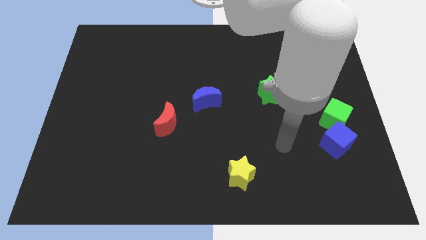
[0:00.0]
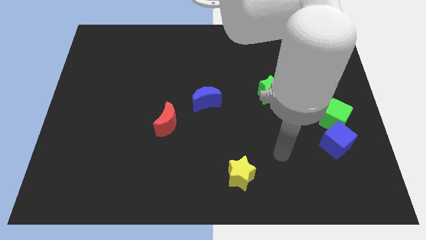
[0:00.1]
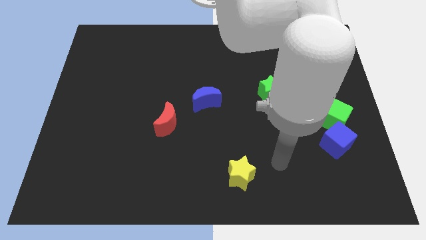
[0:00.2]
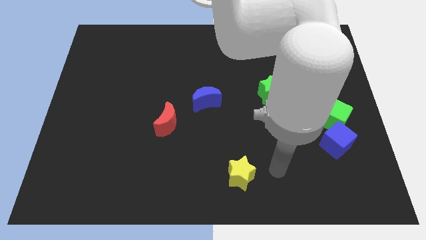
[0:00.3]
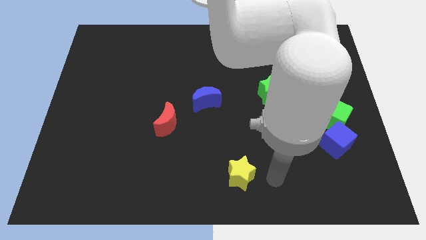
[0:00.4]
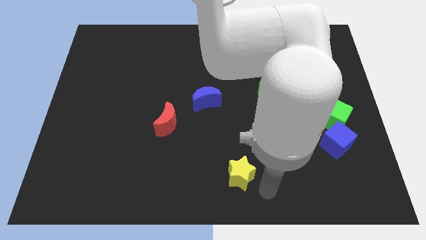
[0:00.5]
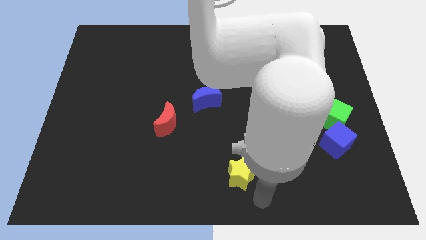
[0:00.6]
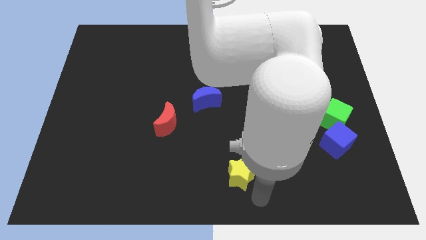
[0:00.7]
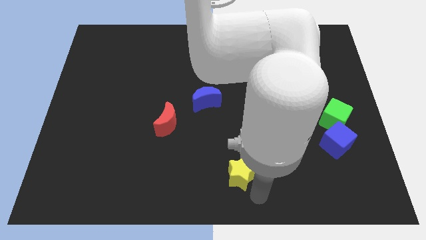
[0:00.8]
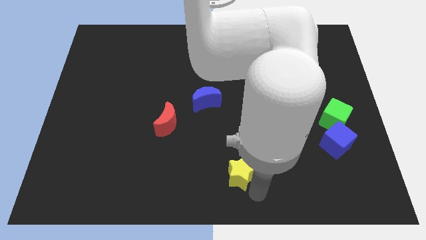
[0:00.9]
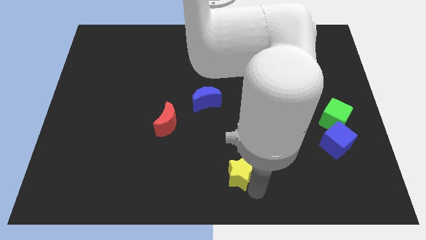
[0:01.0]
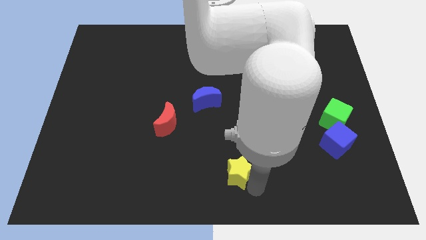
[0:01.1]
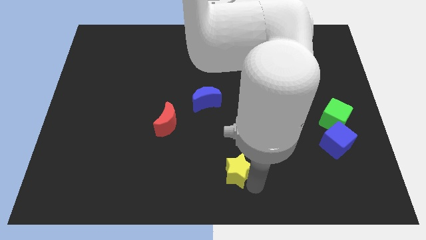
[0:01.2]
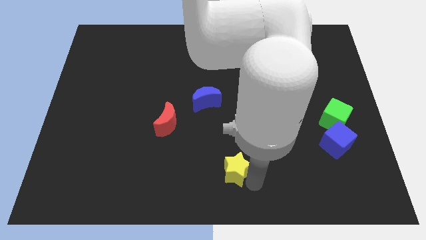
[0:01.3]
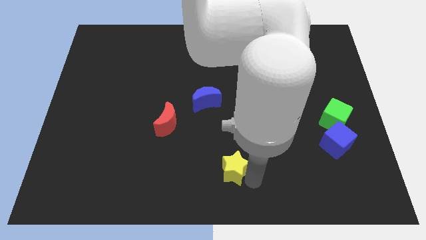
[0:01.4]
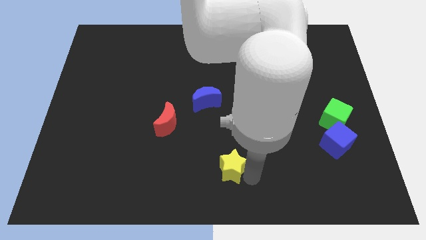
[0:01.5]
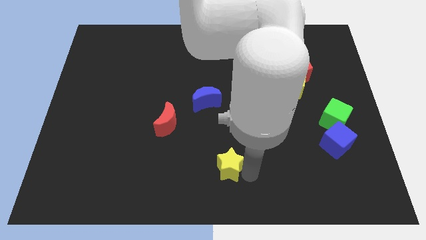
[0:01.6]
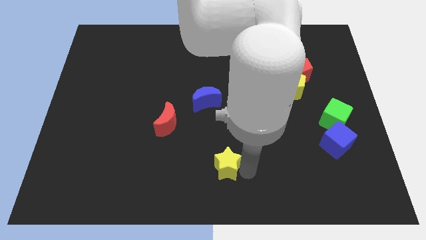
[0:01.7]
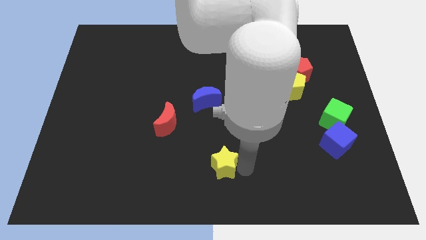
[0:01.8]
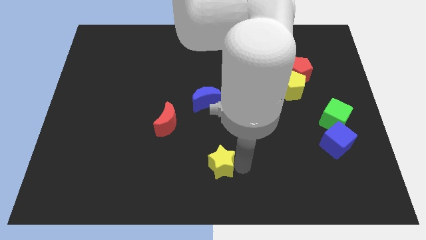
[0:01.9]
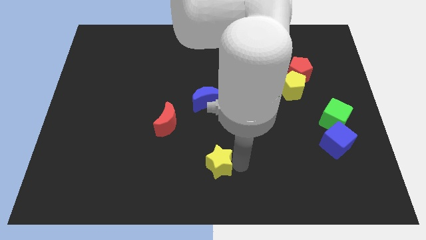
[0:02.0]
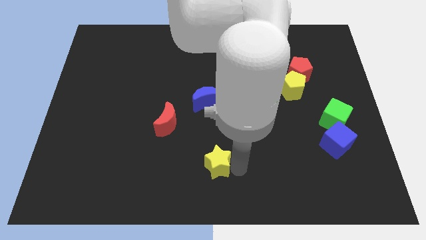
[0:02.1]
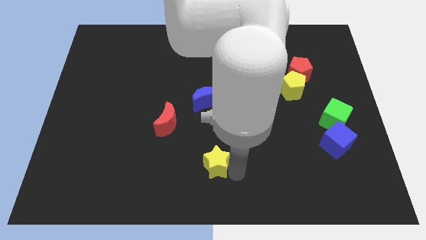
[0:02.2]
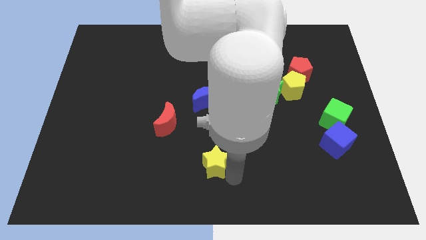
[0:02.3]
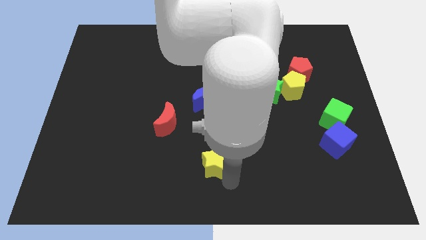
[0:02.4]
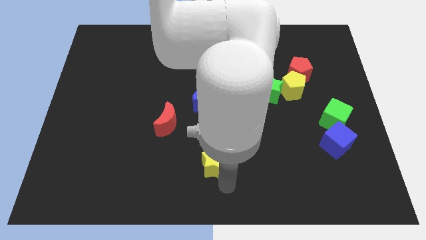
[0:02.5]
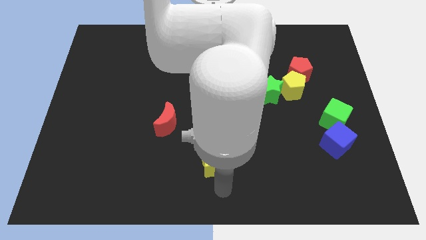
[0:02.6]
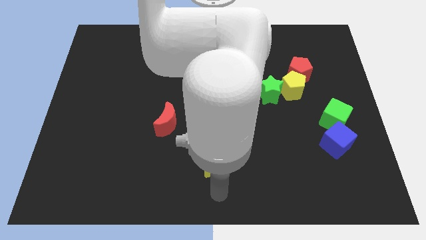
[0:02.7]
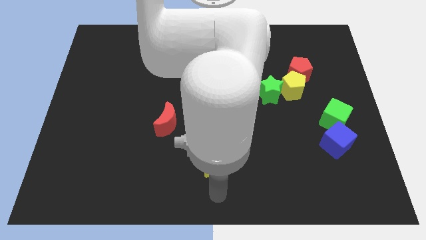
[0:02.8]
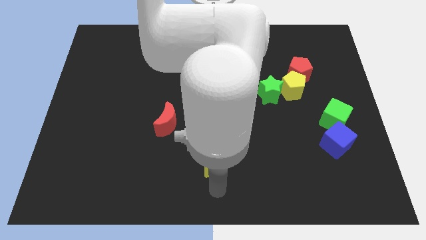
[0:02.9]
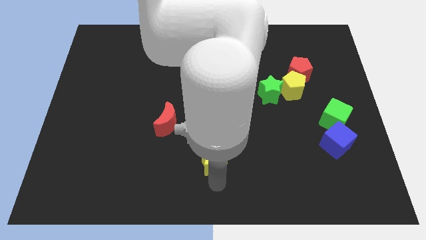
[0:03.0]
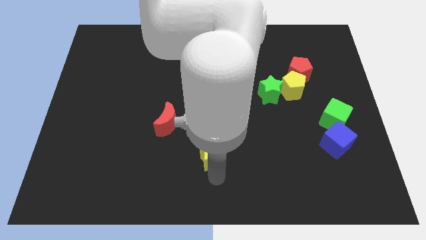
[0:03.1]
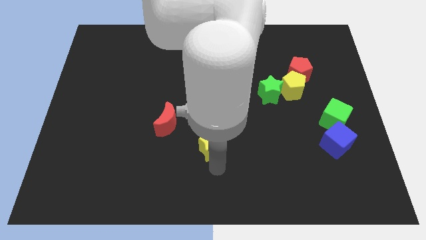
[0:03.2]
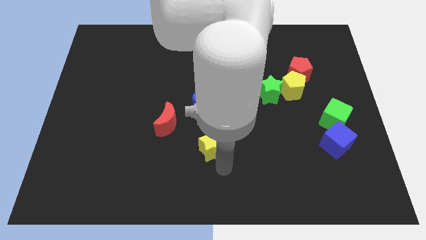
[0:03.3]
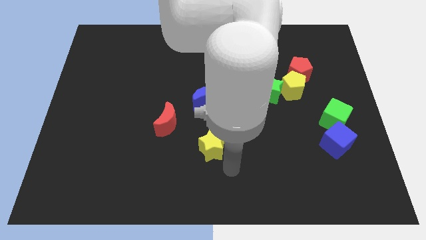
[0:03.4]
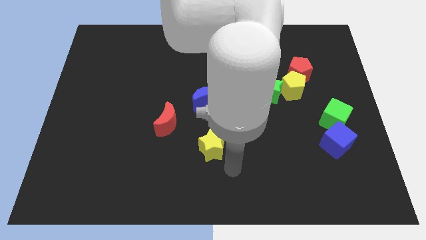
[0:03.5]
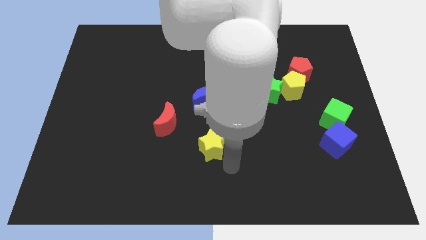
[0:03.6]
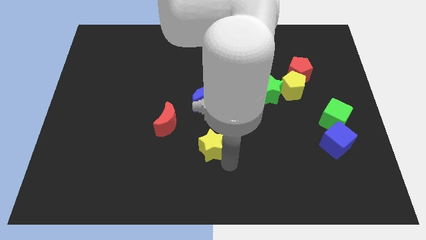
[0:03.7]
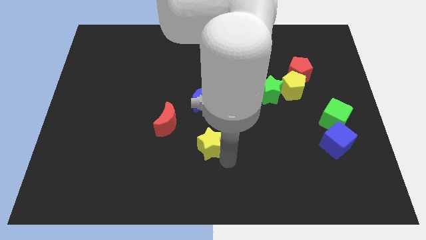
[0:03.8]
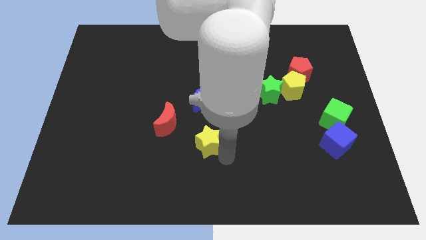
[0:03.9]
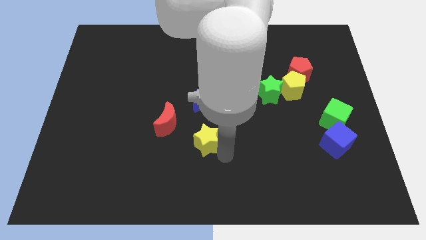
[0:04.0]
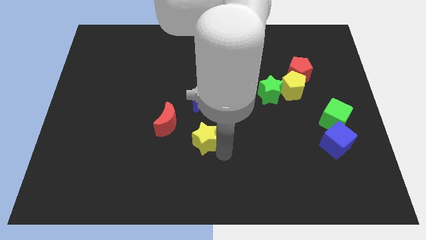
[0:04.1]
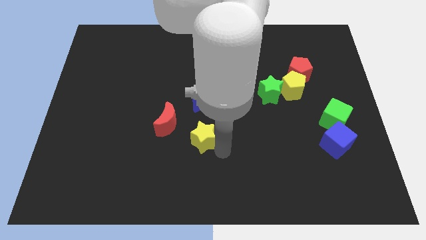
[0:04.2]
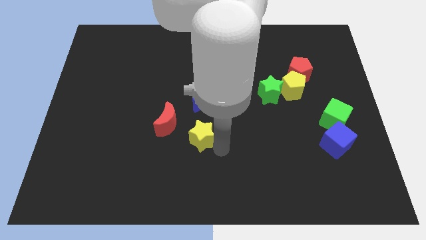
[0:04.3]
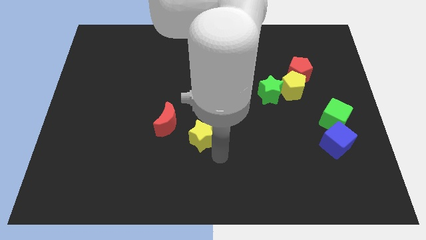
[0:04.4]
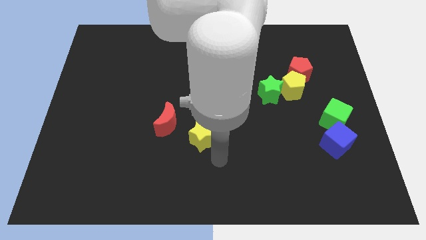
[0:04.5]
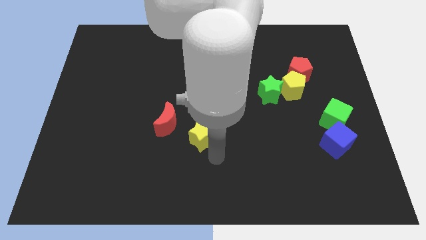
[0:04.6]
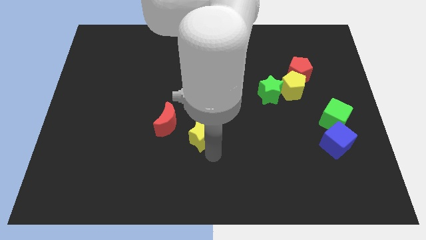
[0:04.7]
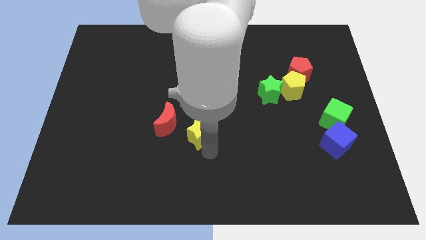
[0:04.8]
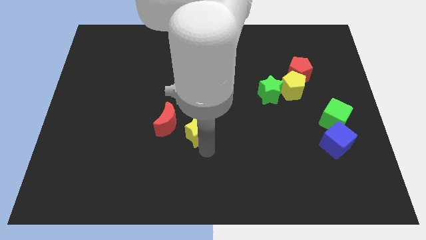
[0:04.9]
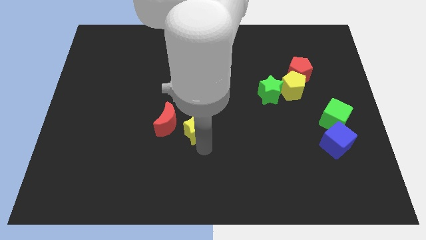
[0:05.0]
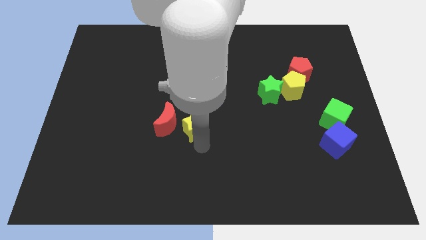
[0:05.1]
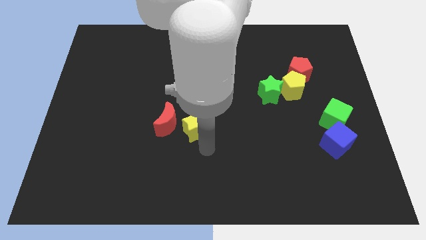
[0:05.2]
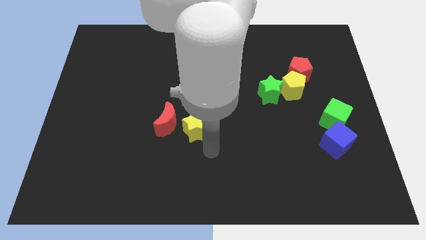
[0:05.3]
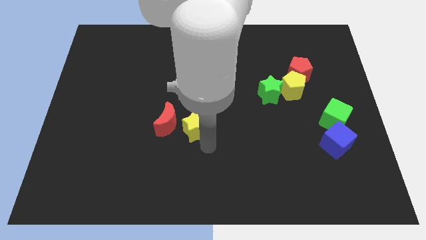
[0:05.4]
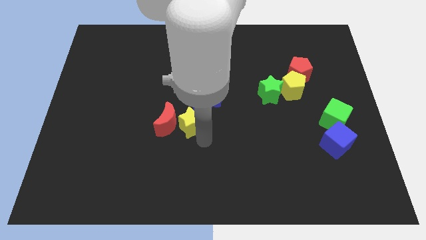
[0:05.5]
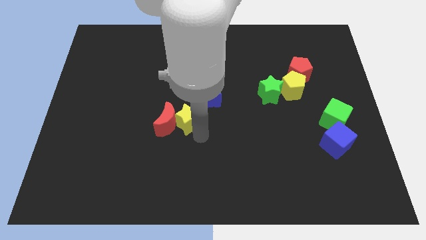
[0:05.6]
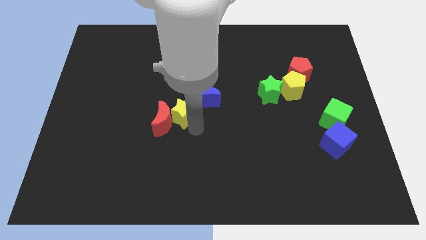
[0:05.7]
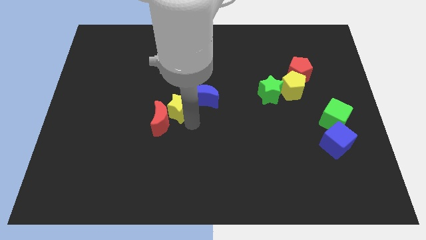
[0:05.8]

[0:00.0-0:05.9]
move the yellow star diagonally up and left

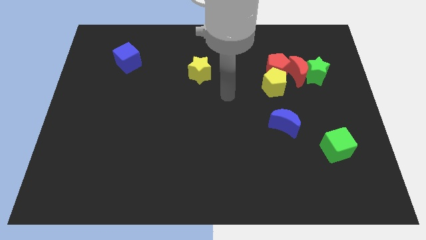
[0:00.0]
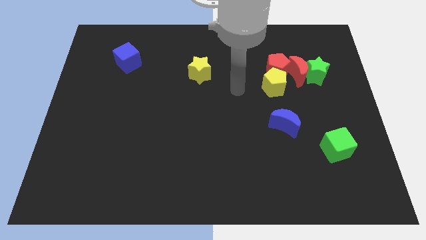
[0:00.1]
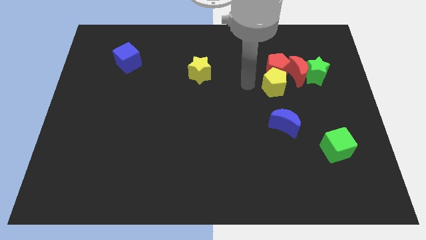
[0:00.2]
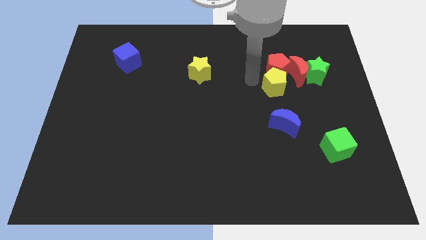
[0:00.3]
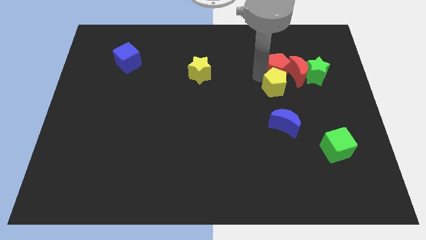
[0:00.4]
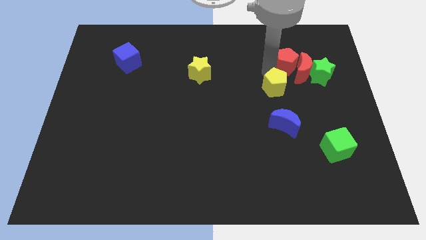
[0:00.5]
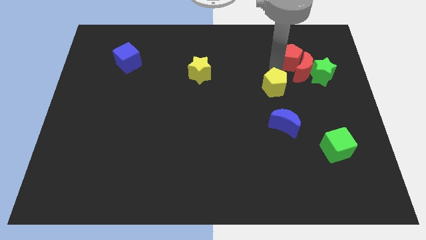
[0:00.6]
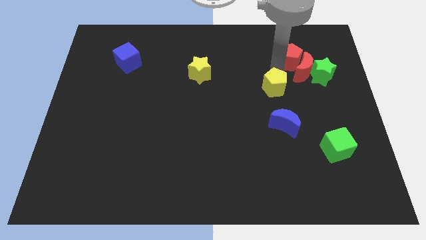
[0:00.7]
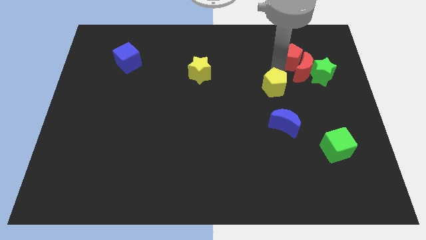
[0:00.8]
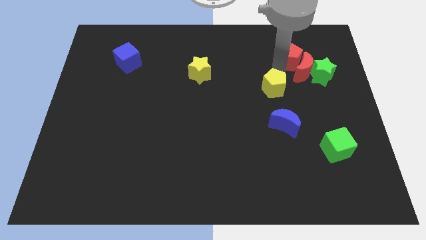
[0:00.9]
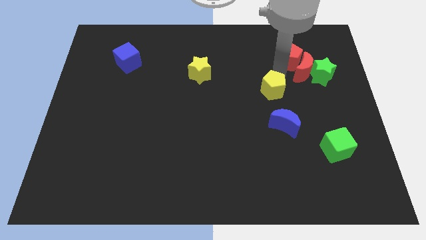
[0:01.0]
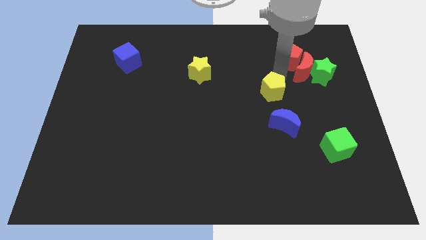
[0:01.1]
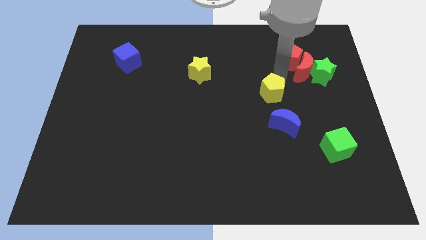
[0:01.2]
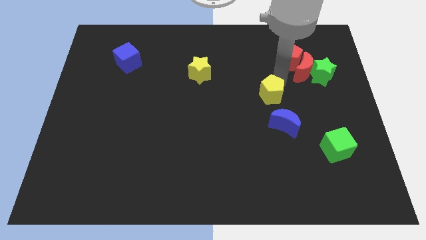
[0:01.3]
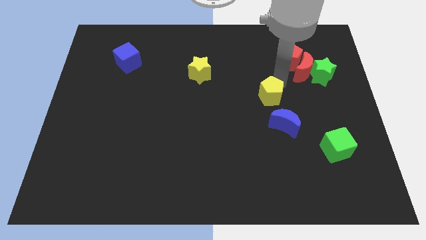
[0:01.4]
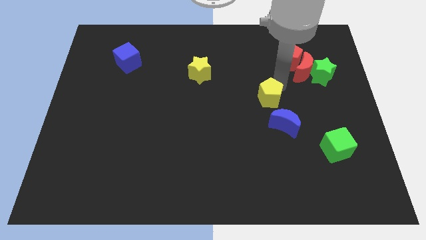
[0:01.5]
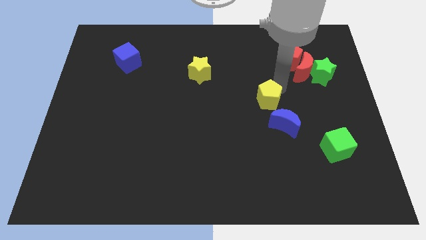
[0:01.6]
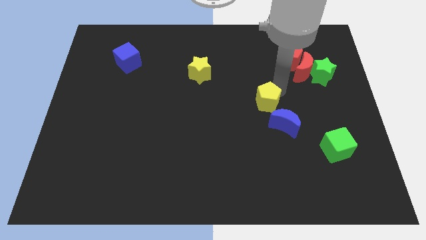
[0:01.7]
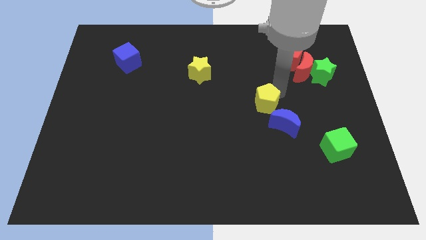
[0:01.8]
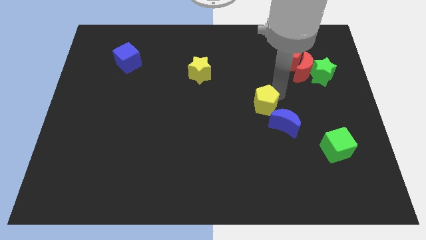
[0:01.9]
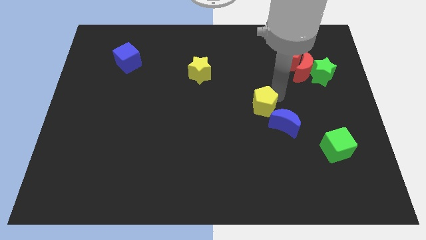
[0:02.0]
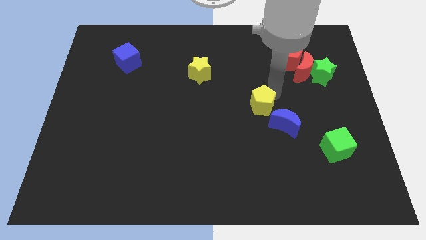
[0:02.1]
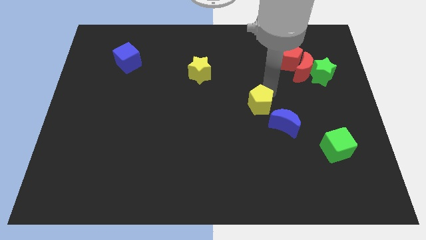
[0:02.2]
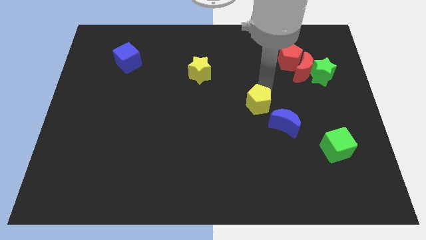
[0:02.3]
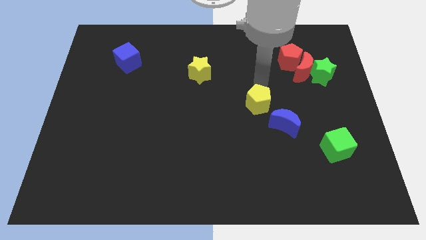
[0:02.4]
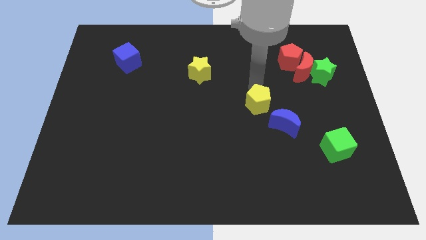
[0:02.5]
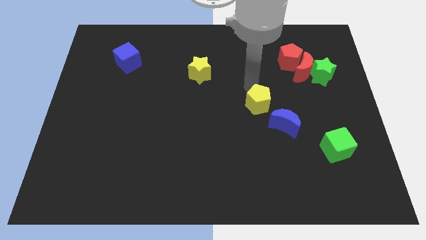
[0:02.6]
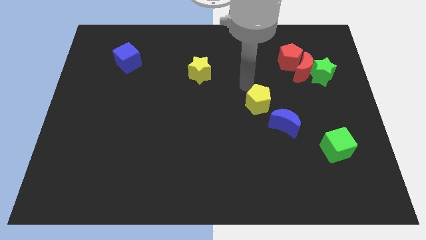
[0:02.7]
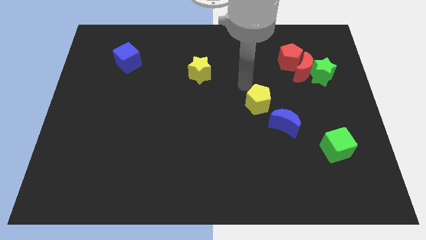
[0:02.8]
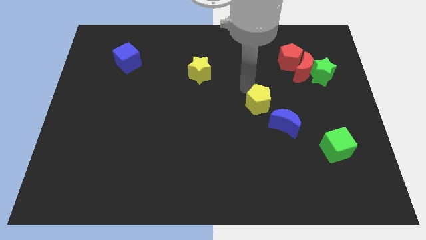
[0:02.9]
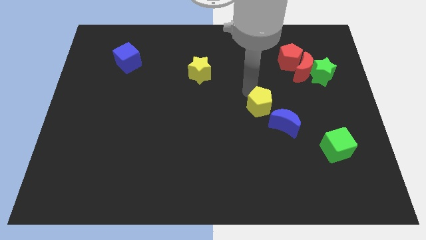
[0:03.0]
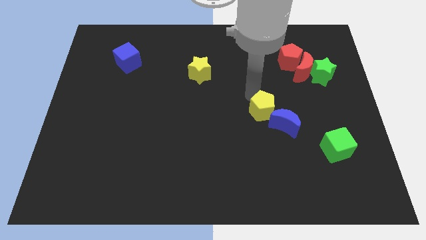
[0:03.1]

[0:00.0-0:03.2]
move the yellow pentagon a little bit downwards
